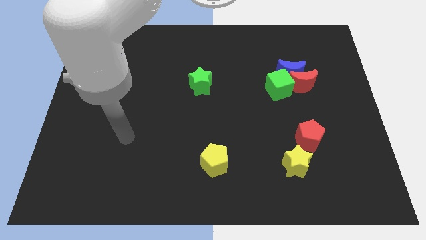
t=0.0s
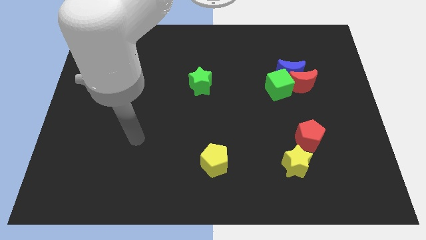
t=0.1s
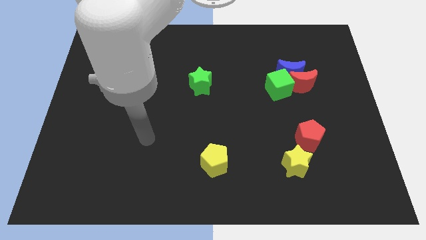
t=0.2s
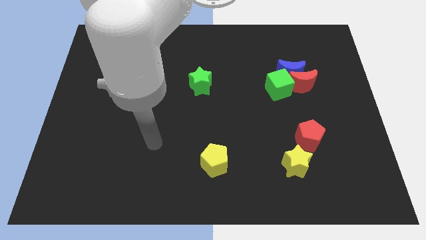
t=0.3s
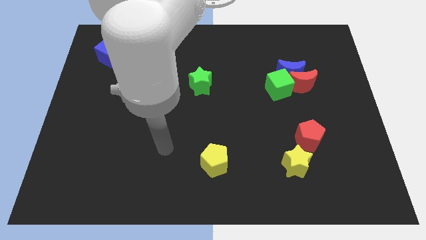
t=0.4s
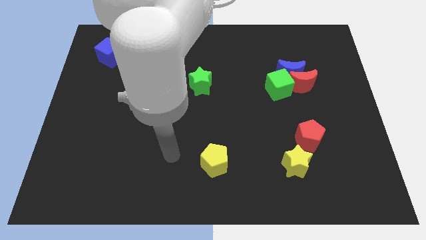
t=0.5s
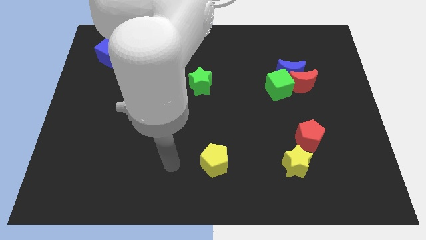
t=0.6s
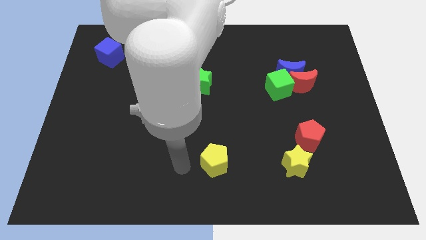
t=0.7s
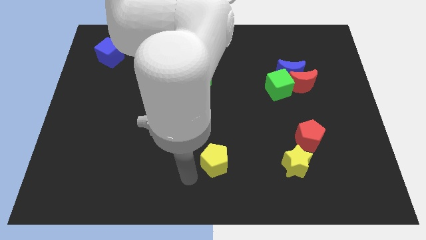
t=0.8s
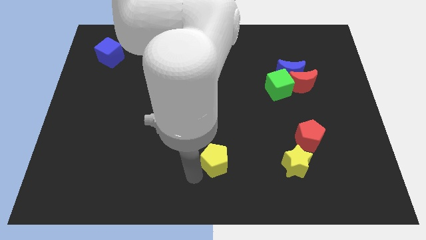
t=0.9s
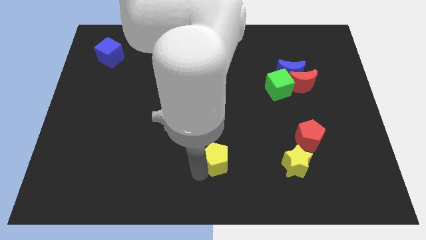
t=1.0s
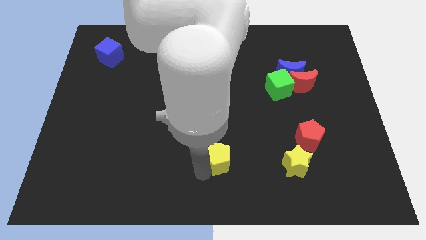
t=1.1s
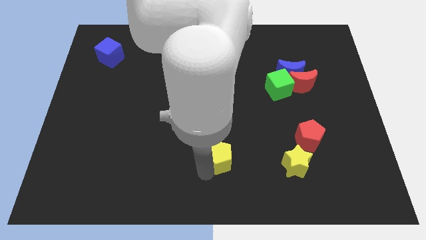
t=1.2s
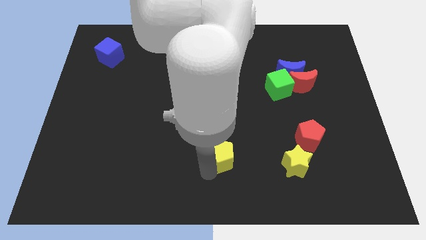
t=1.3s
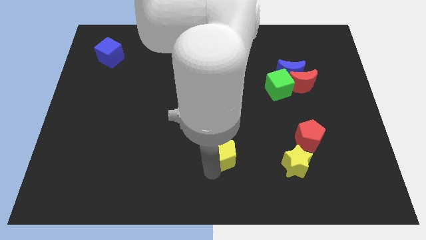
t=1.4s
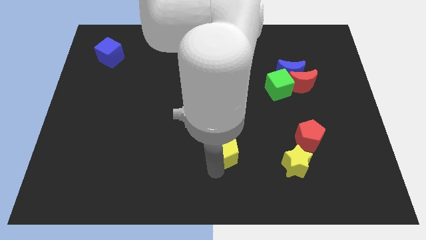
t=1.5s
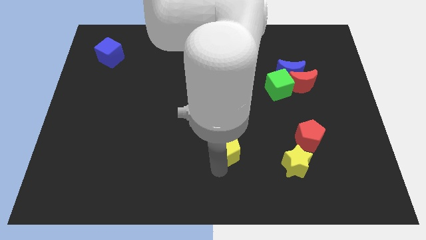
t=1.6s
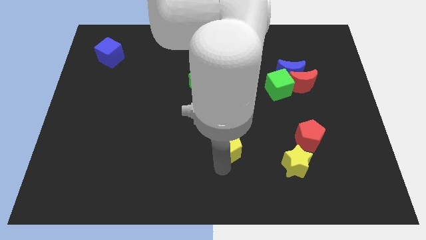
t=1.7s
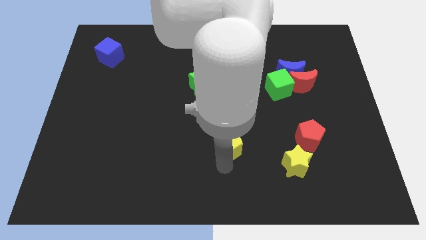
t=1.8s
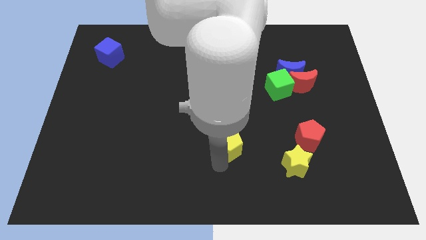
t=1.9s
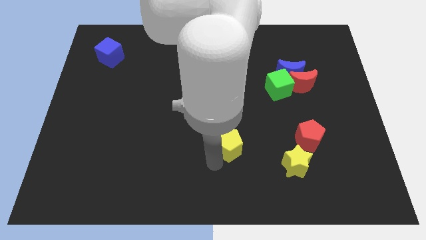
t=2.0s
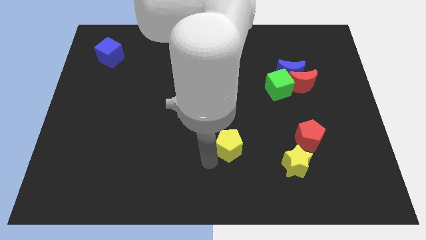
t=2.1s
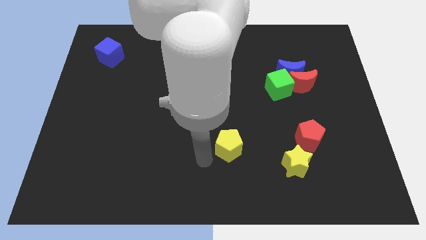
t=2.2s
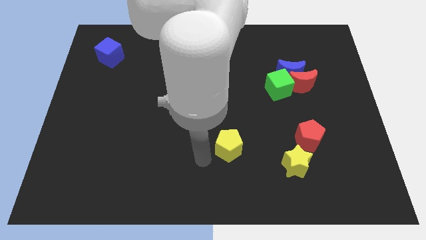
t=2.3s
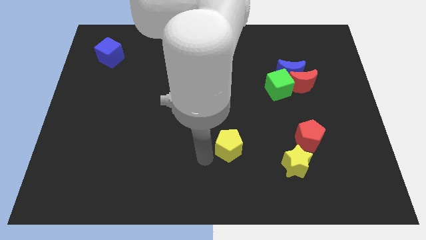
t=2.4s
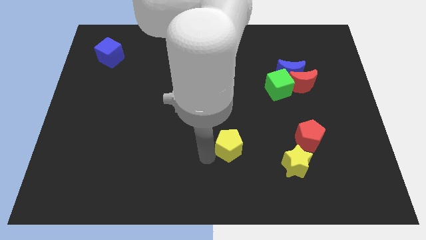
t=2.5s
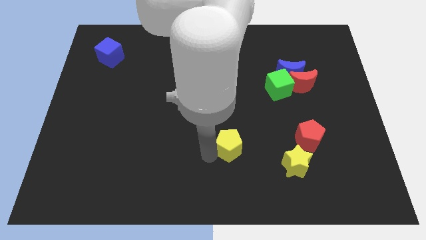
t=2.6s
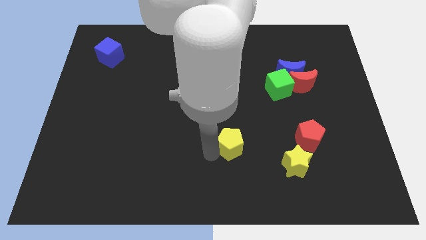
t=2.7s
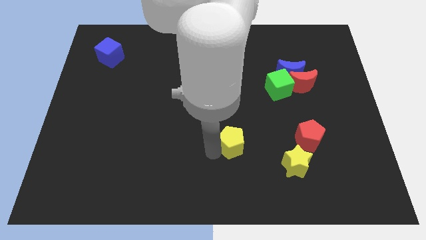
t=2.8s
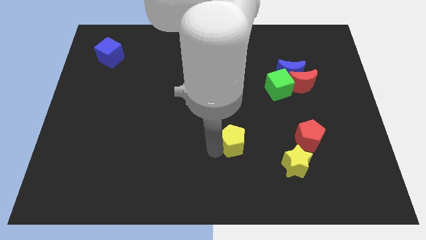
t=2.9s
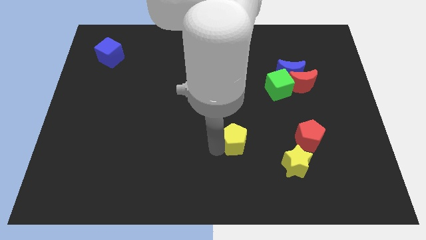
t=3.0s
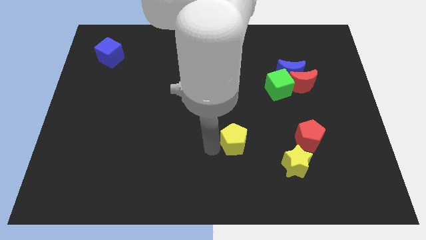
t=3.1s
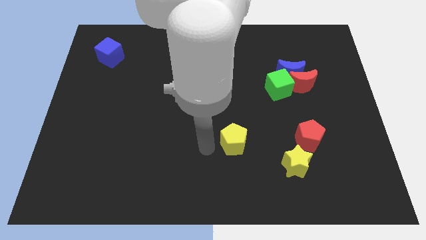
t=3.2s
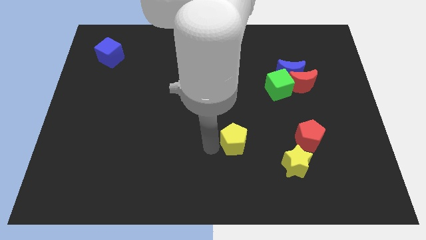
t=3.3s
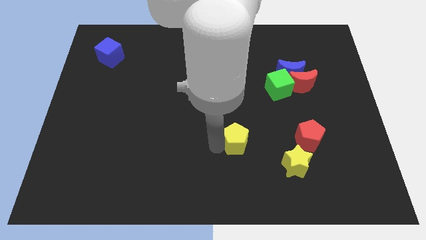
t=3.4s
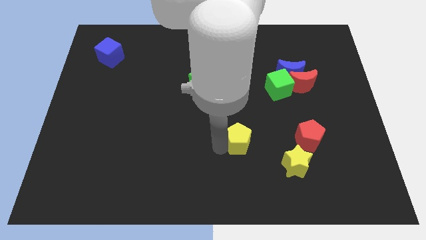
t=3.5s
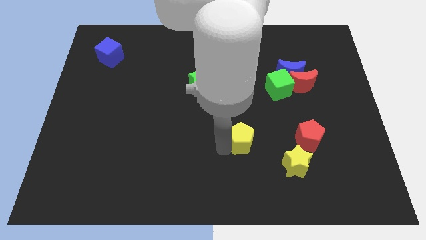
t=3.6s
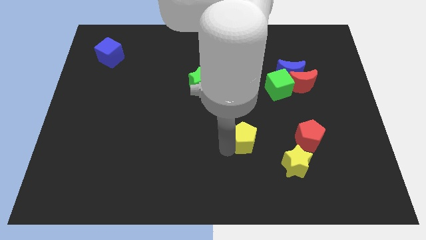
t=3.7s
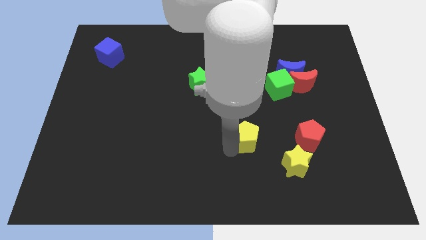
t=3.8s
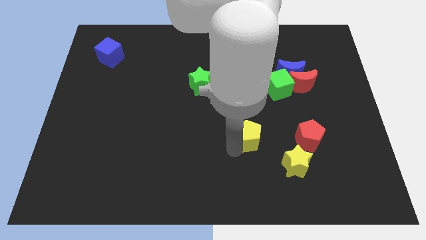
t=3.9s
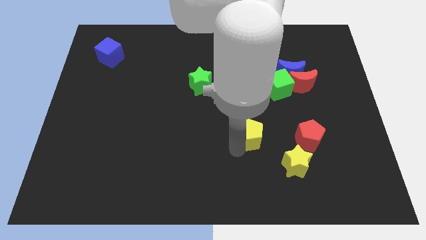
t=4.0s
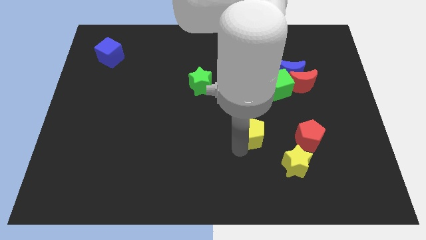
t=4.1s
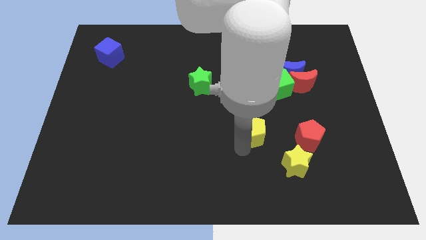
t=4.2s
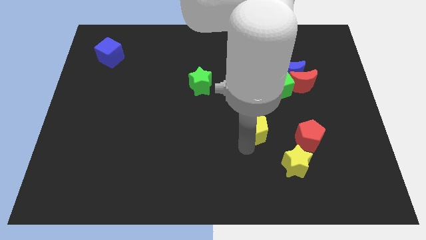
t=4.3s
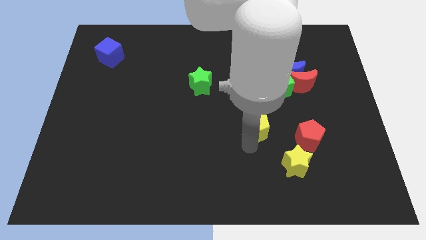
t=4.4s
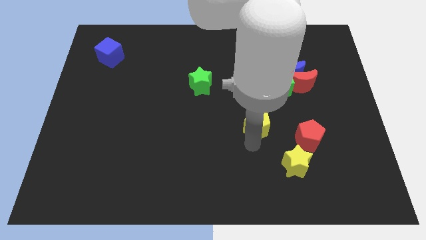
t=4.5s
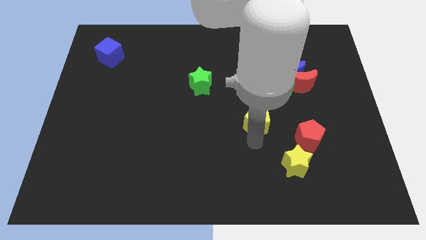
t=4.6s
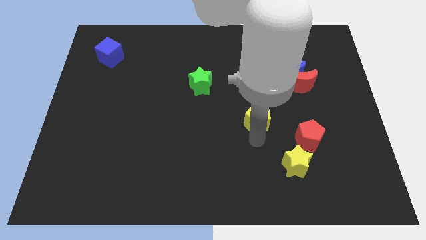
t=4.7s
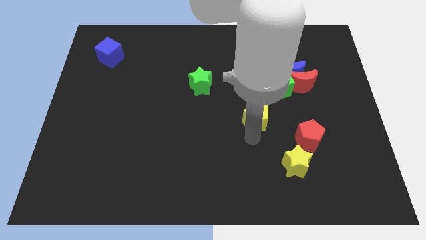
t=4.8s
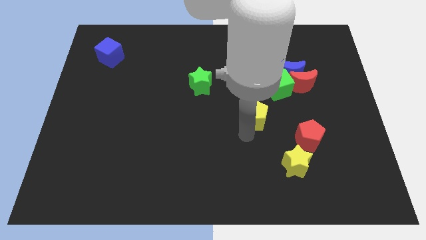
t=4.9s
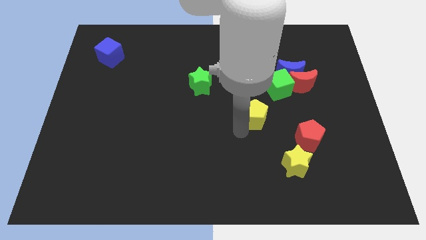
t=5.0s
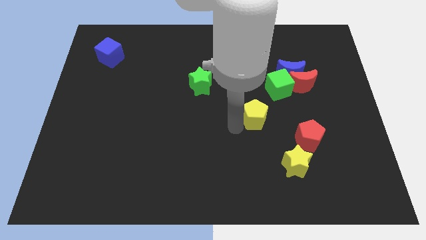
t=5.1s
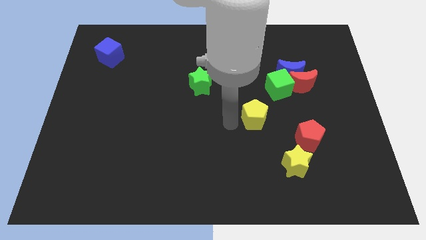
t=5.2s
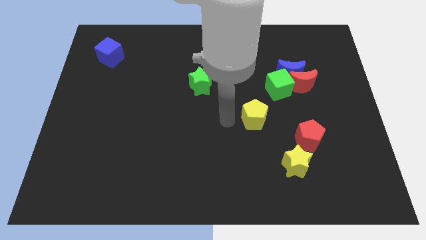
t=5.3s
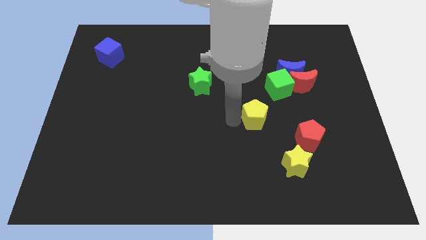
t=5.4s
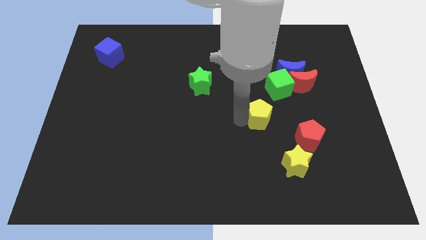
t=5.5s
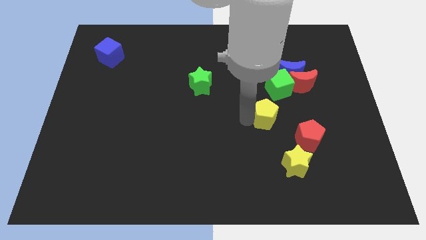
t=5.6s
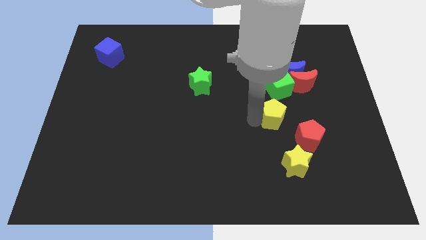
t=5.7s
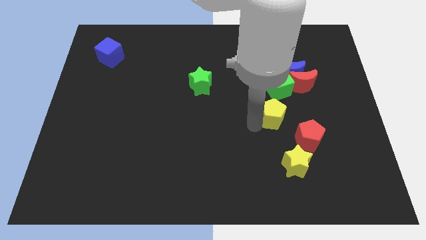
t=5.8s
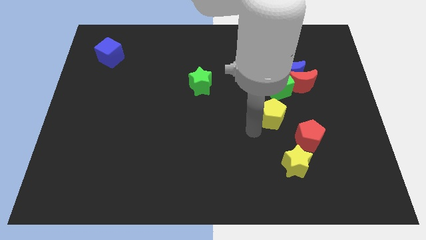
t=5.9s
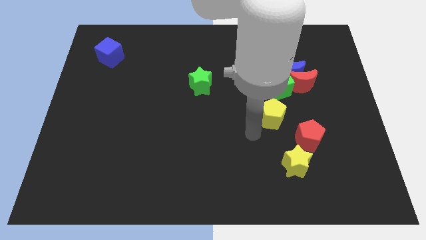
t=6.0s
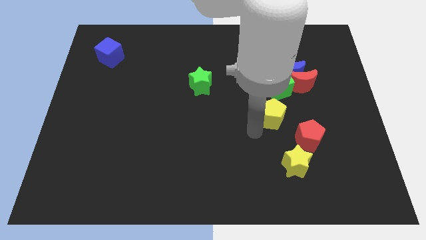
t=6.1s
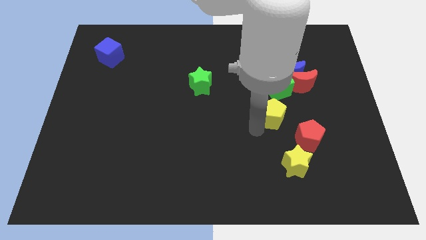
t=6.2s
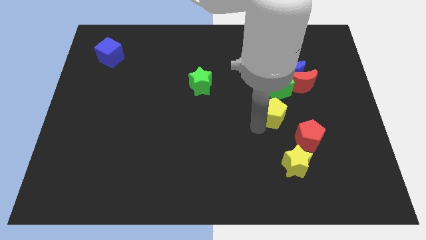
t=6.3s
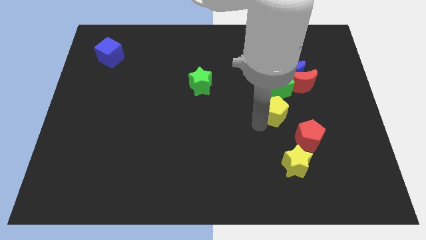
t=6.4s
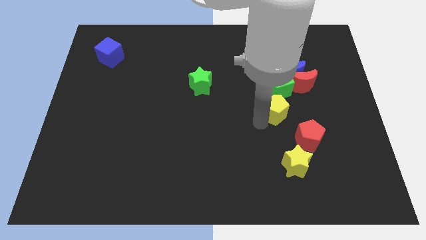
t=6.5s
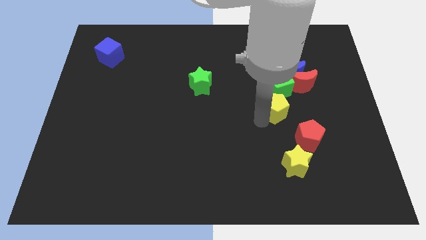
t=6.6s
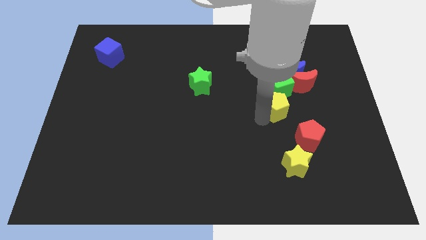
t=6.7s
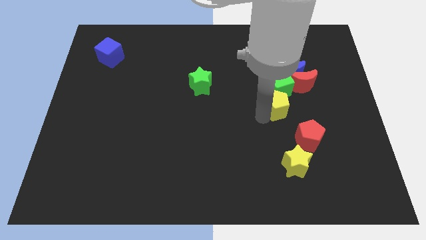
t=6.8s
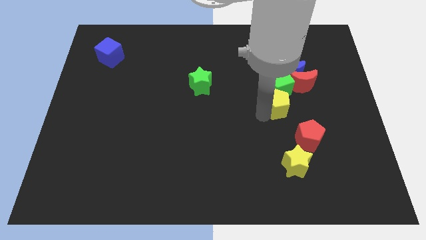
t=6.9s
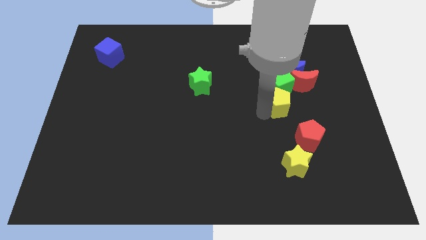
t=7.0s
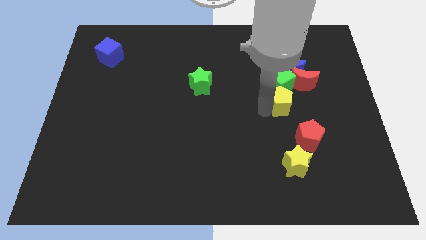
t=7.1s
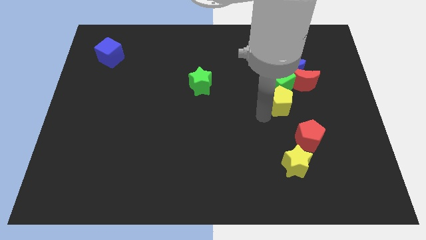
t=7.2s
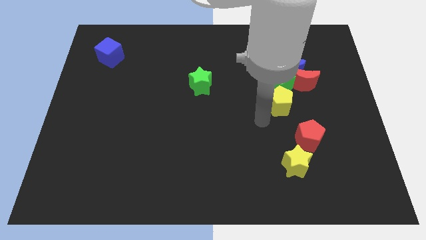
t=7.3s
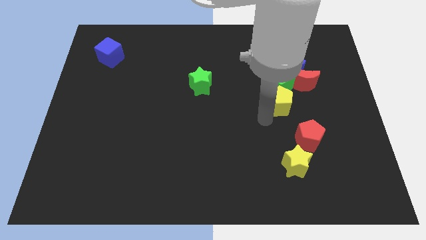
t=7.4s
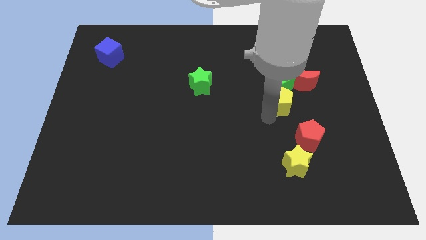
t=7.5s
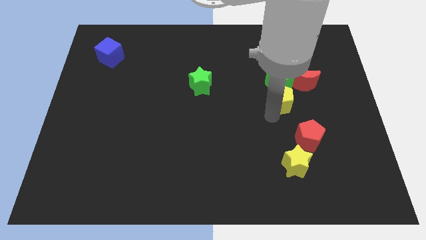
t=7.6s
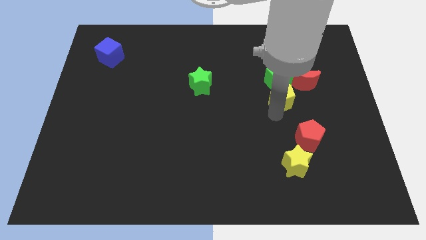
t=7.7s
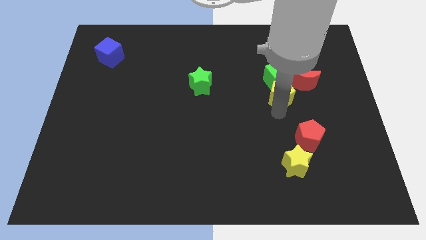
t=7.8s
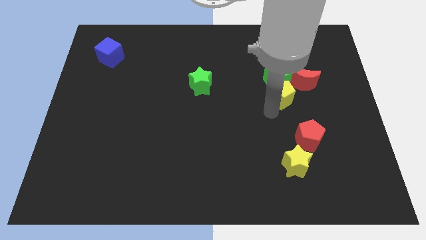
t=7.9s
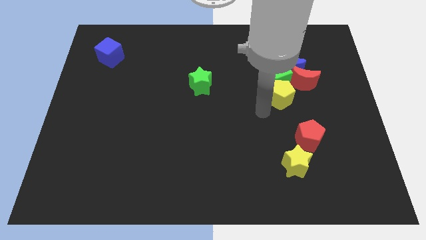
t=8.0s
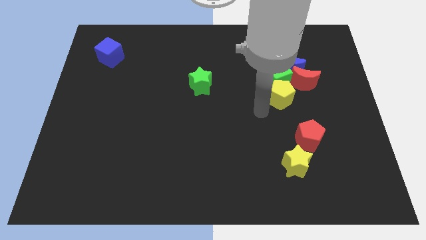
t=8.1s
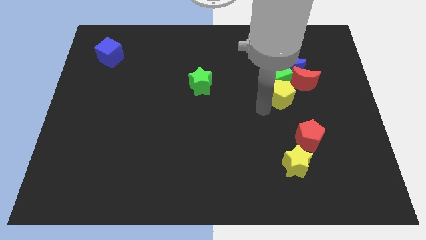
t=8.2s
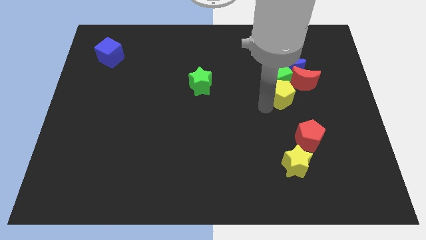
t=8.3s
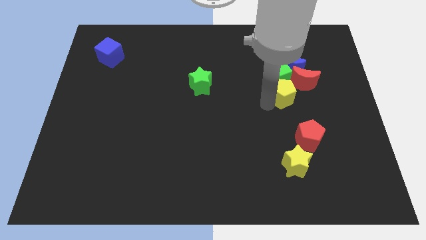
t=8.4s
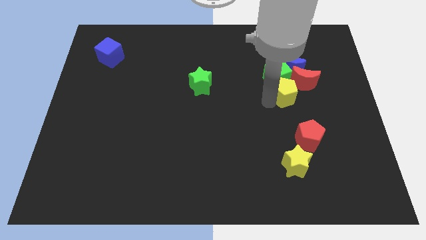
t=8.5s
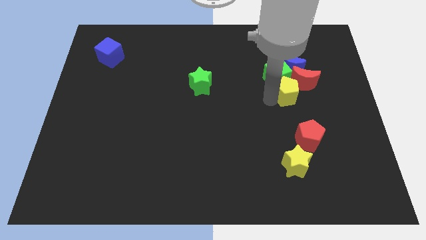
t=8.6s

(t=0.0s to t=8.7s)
slide the yellow pentagon towards the red moon
